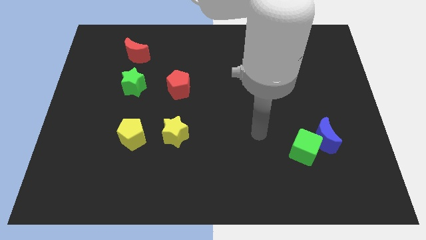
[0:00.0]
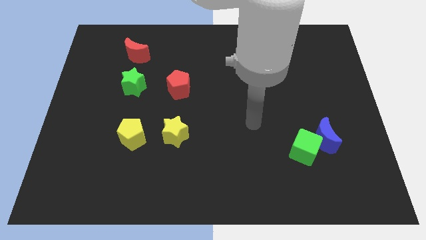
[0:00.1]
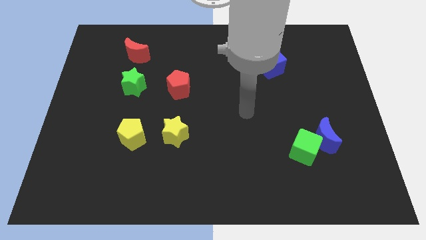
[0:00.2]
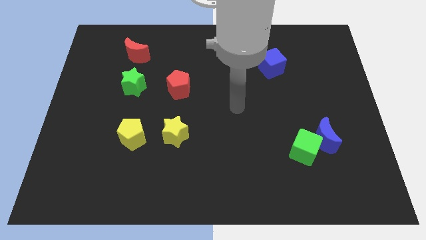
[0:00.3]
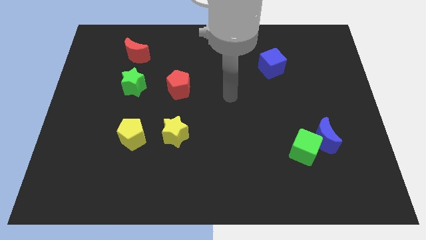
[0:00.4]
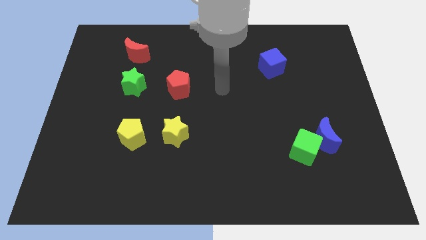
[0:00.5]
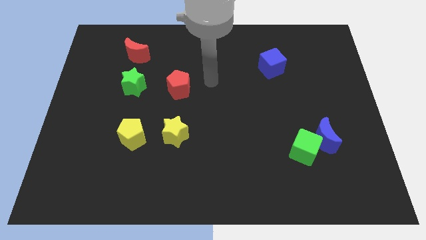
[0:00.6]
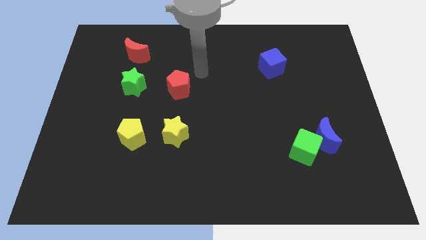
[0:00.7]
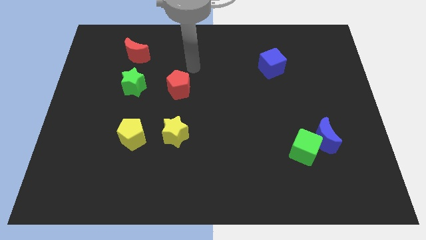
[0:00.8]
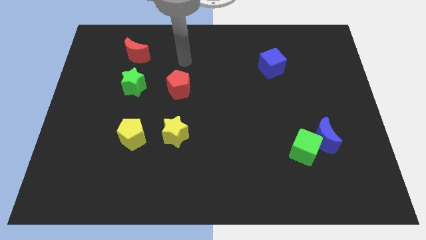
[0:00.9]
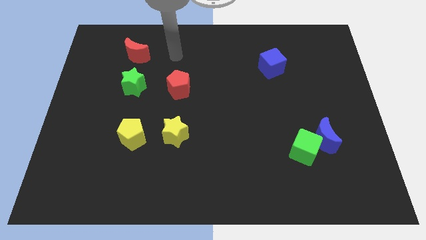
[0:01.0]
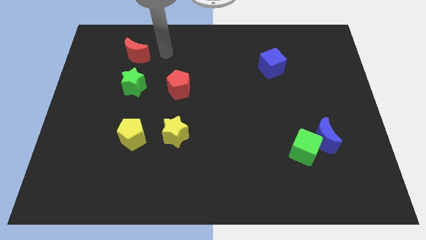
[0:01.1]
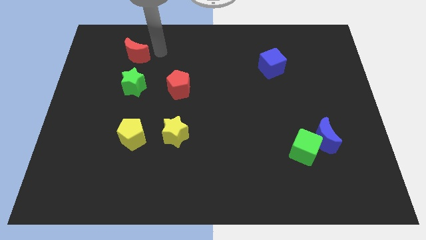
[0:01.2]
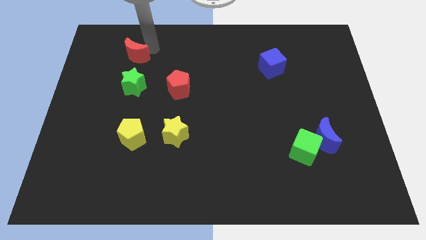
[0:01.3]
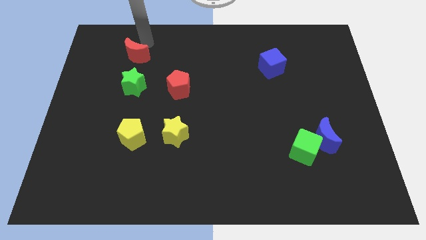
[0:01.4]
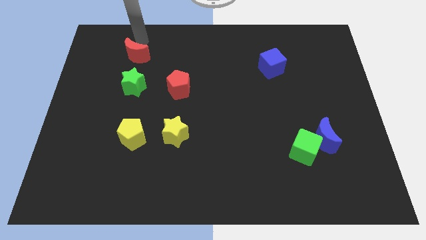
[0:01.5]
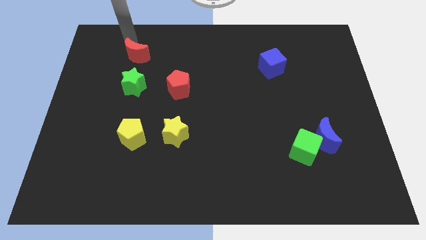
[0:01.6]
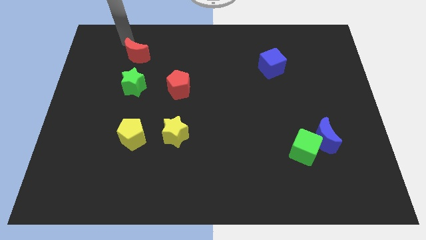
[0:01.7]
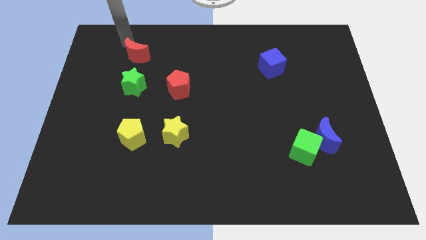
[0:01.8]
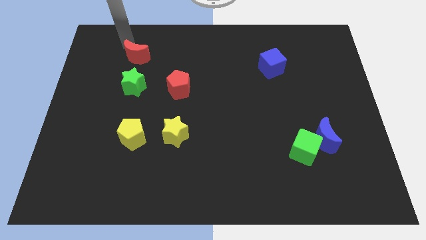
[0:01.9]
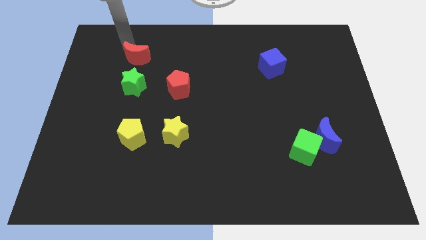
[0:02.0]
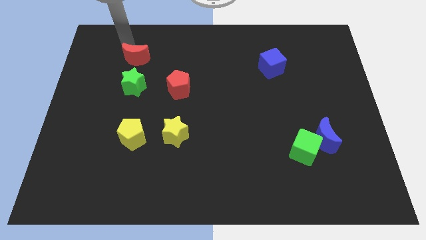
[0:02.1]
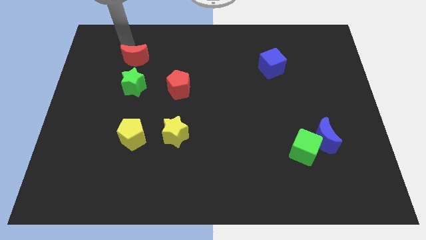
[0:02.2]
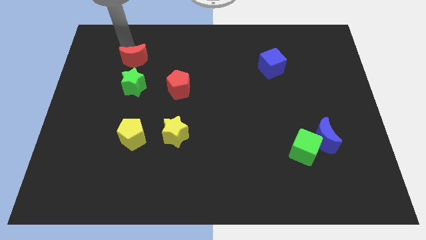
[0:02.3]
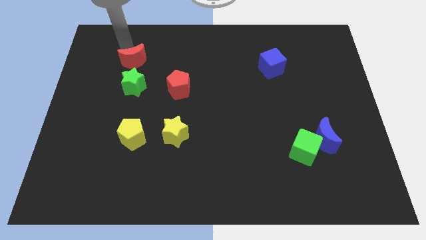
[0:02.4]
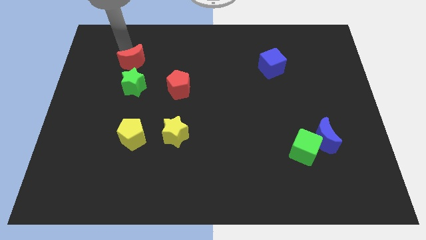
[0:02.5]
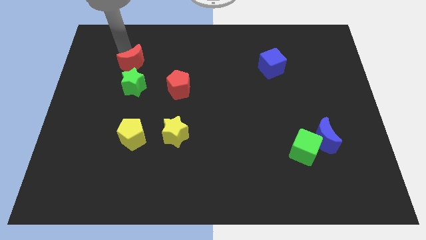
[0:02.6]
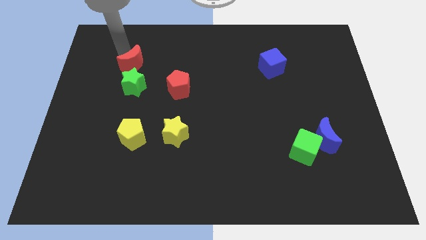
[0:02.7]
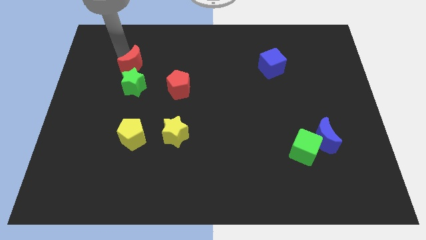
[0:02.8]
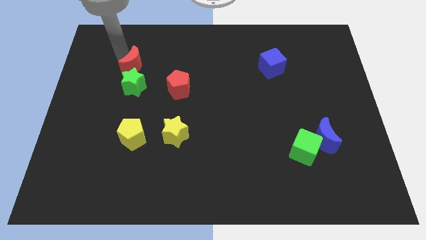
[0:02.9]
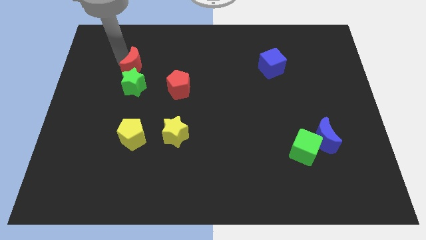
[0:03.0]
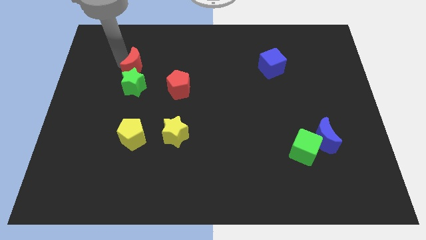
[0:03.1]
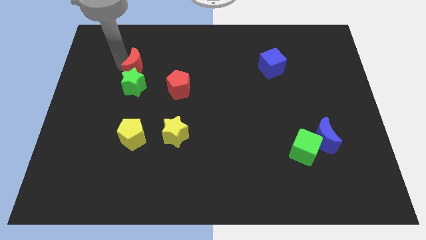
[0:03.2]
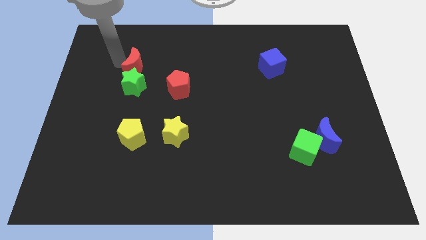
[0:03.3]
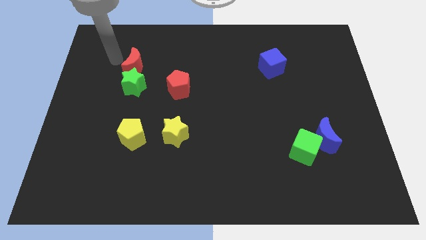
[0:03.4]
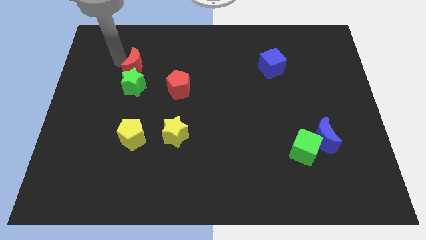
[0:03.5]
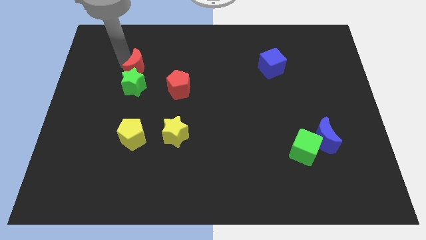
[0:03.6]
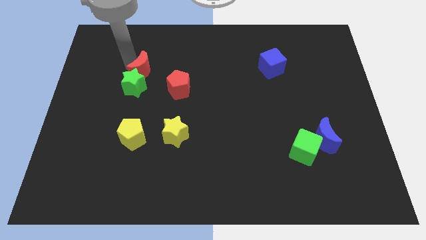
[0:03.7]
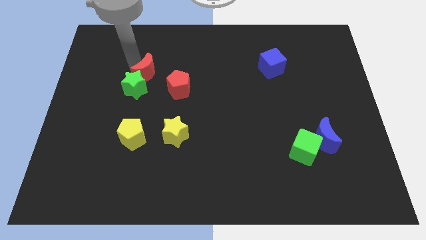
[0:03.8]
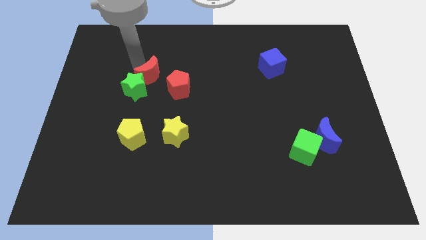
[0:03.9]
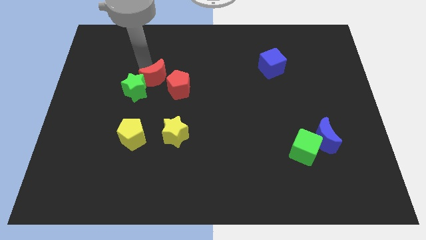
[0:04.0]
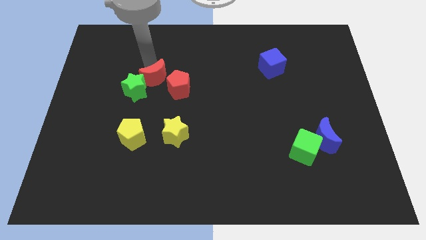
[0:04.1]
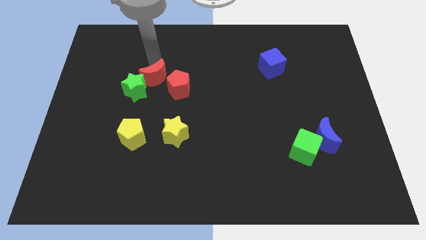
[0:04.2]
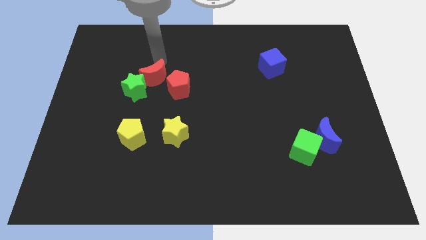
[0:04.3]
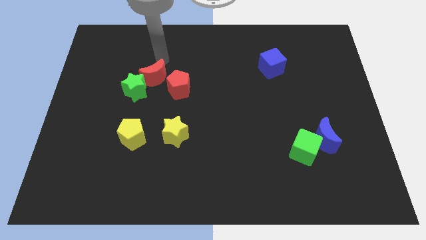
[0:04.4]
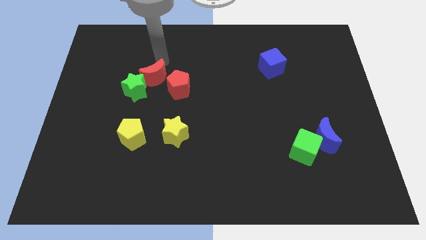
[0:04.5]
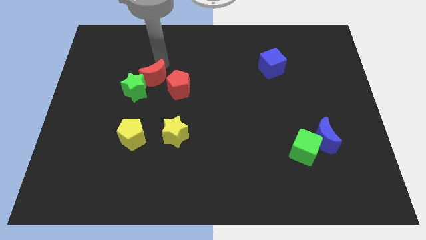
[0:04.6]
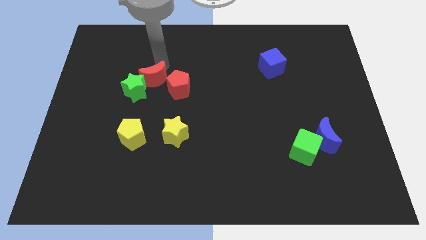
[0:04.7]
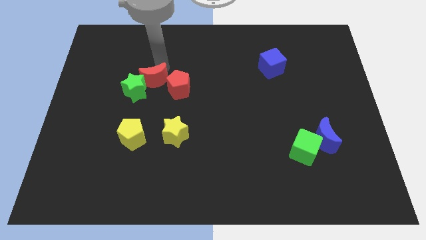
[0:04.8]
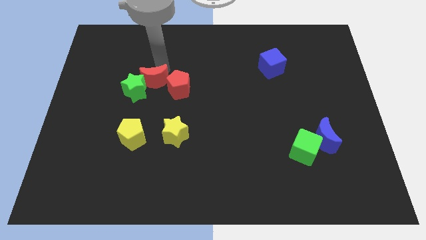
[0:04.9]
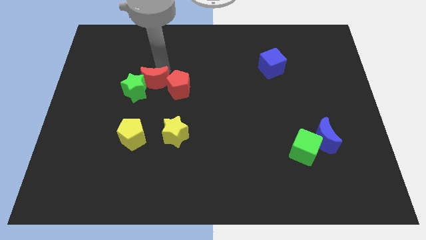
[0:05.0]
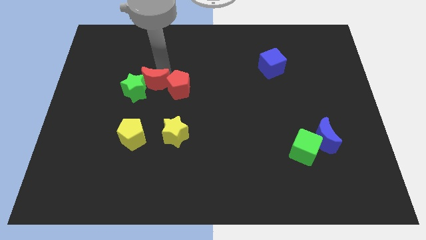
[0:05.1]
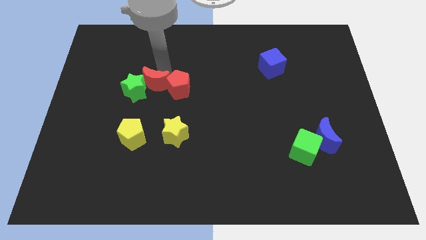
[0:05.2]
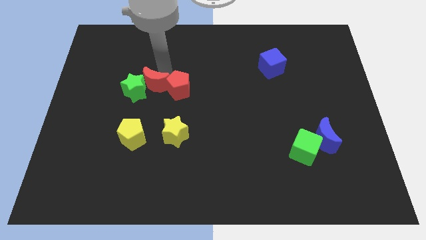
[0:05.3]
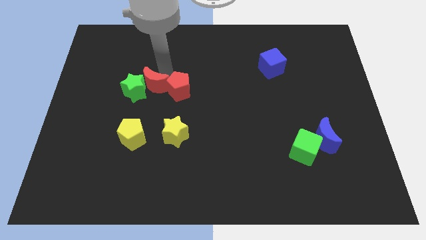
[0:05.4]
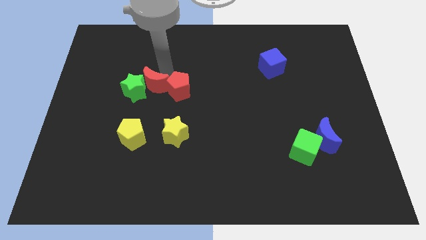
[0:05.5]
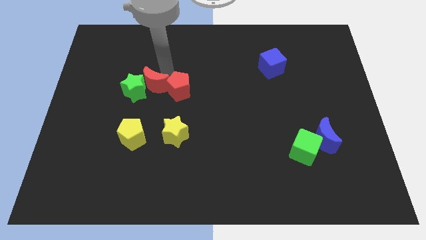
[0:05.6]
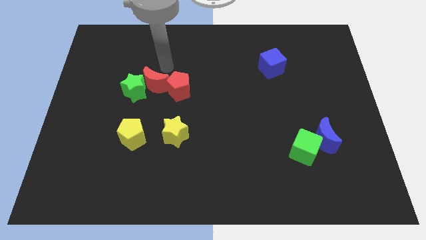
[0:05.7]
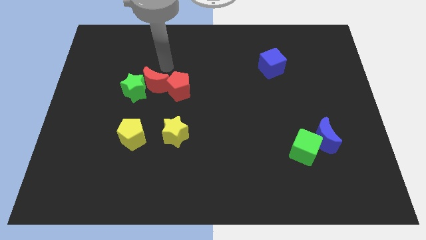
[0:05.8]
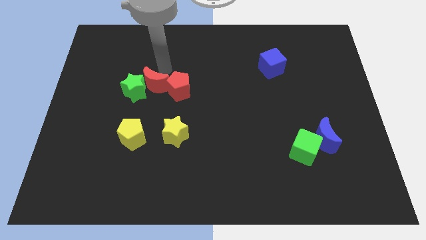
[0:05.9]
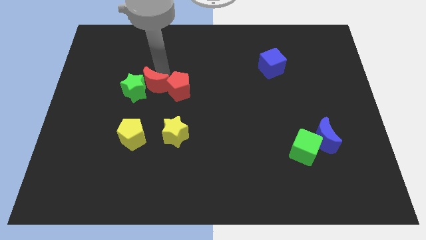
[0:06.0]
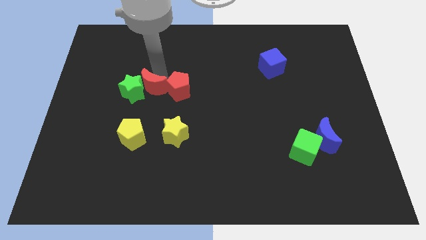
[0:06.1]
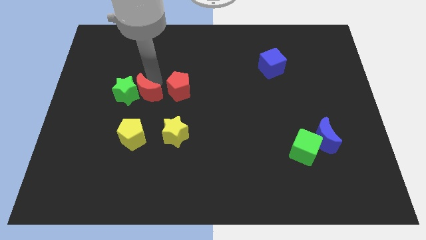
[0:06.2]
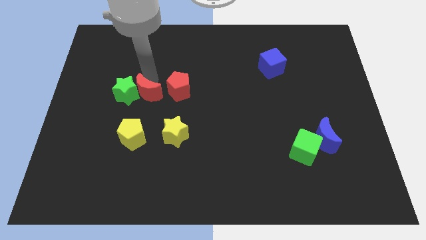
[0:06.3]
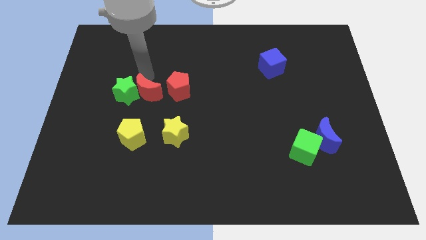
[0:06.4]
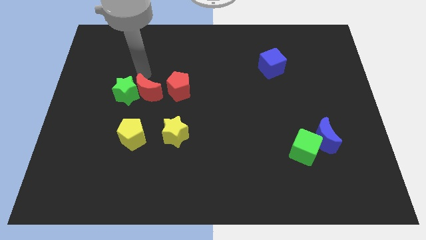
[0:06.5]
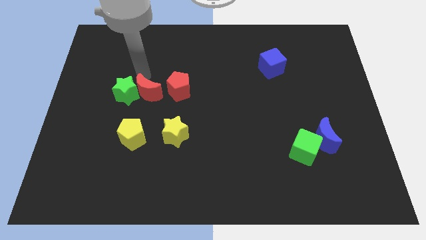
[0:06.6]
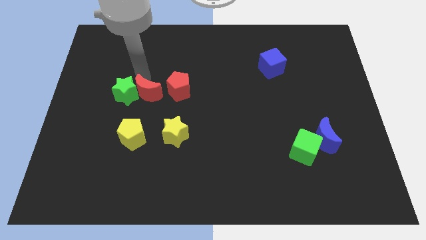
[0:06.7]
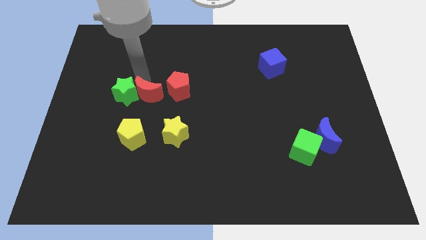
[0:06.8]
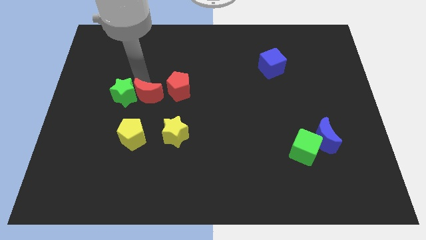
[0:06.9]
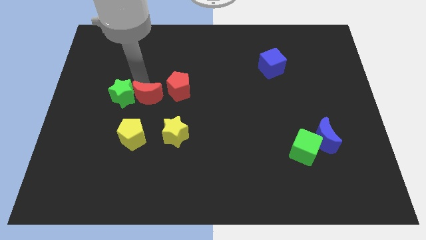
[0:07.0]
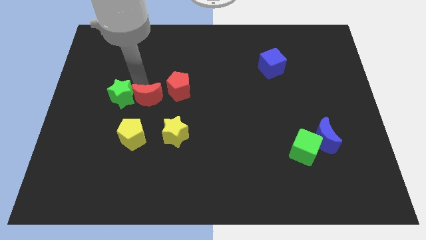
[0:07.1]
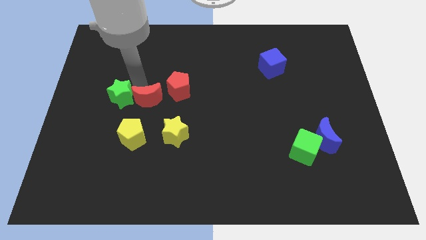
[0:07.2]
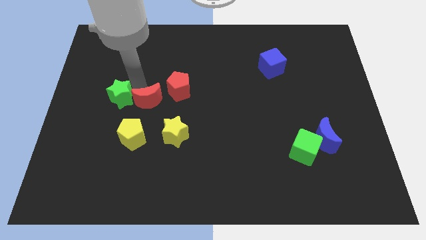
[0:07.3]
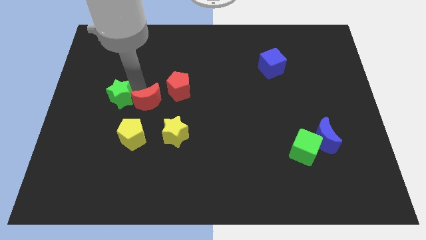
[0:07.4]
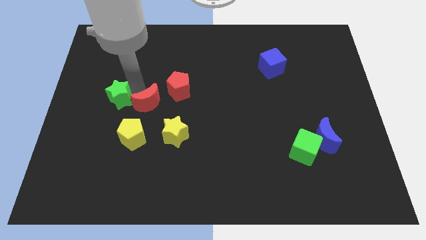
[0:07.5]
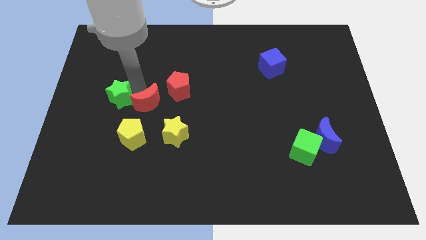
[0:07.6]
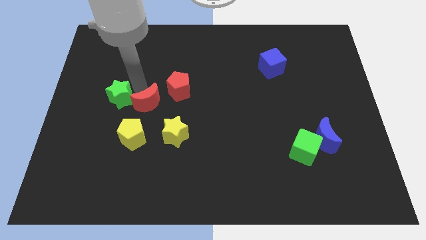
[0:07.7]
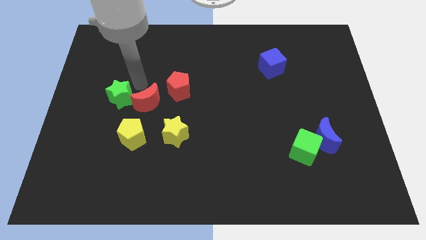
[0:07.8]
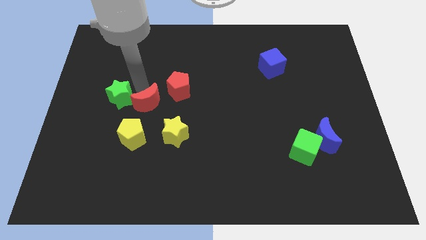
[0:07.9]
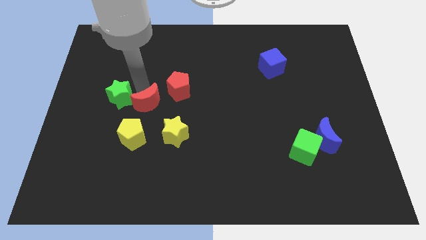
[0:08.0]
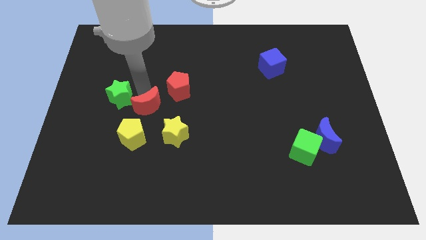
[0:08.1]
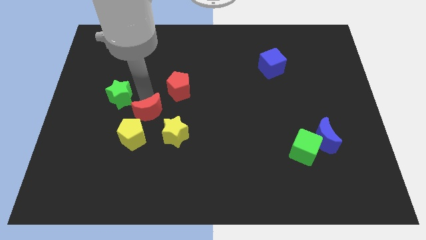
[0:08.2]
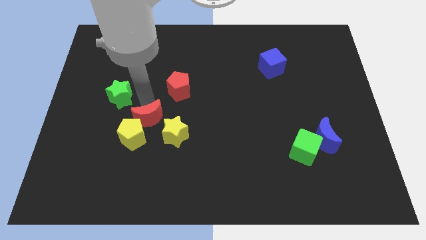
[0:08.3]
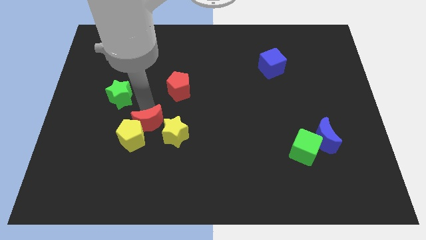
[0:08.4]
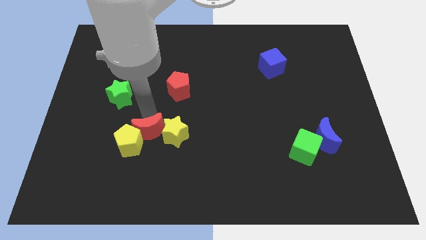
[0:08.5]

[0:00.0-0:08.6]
move the red moon diagonally down and to the left of the yellow star
